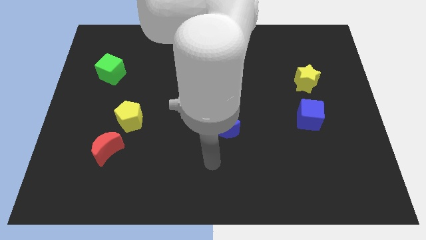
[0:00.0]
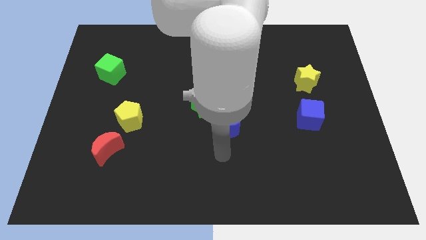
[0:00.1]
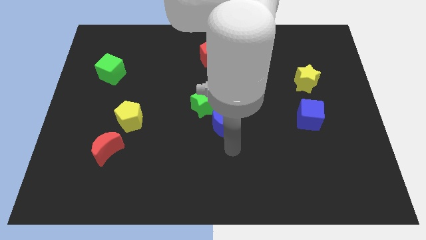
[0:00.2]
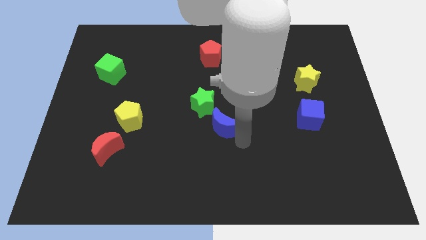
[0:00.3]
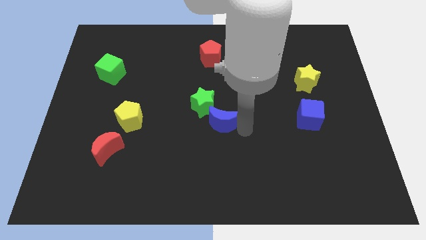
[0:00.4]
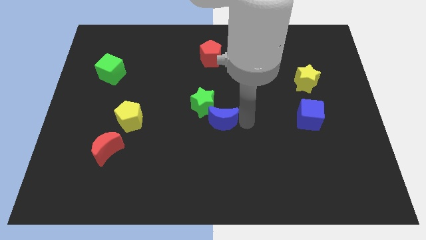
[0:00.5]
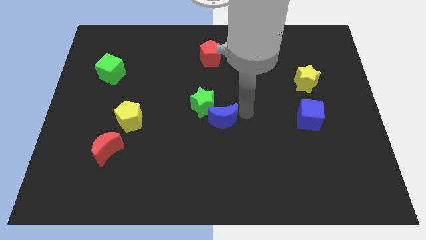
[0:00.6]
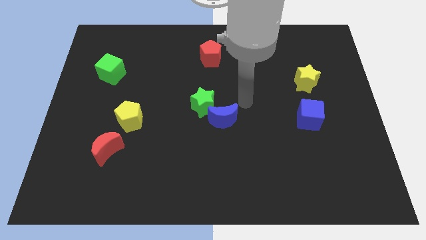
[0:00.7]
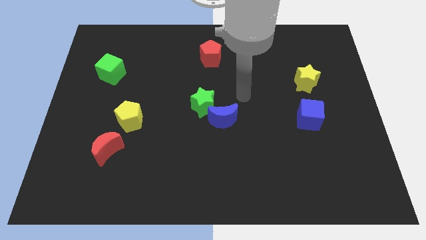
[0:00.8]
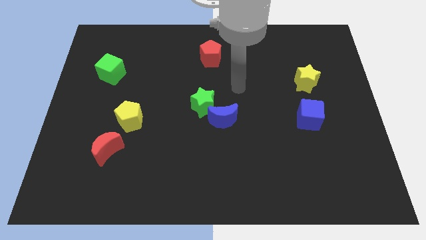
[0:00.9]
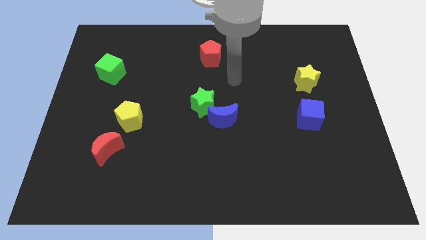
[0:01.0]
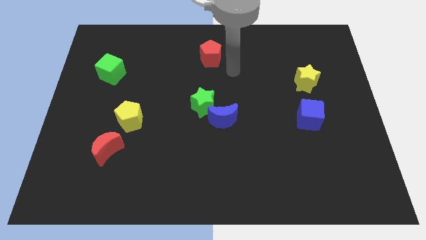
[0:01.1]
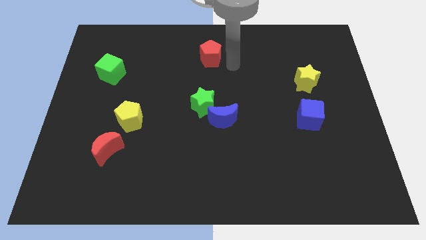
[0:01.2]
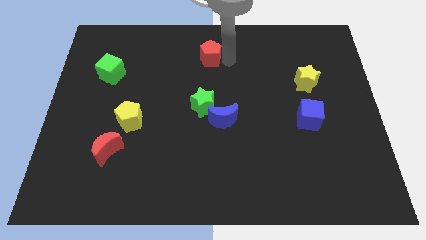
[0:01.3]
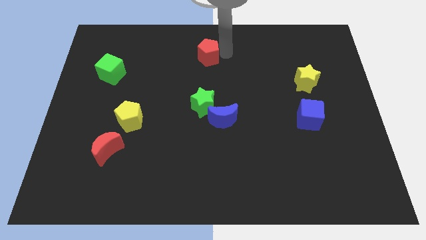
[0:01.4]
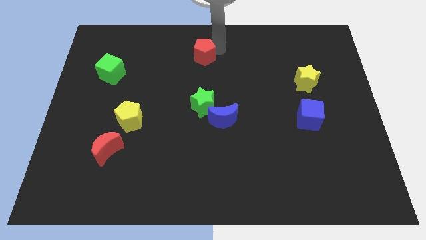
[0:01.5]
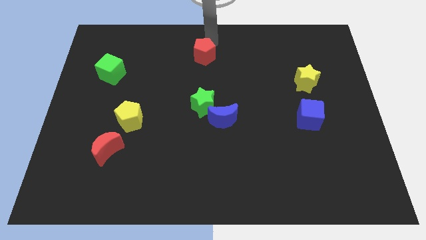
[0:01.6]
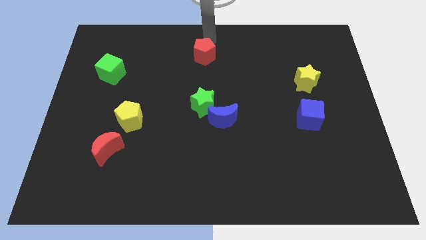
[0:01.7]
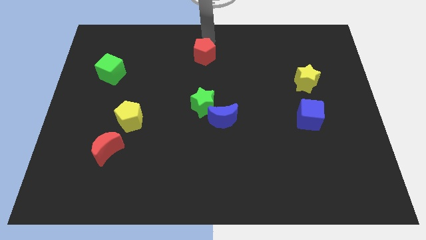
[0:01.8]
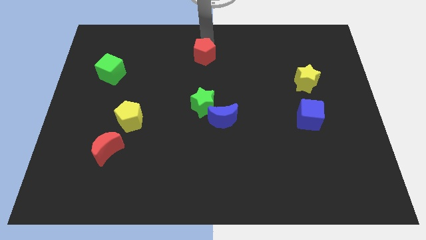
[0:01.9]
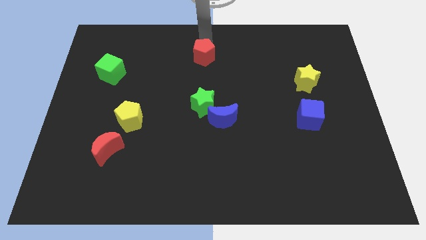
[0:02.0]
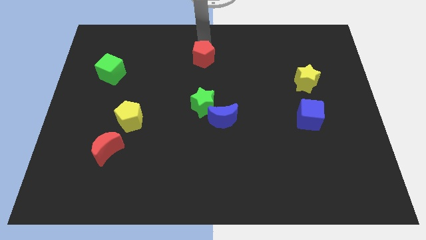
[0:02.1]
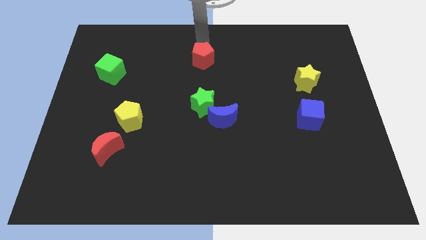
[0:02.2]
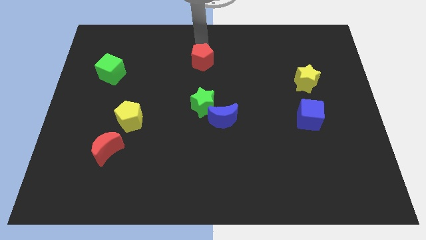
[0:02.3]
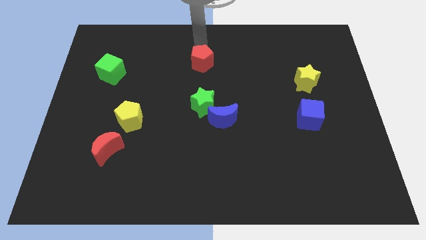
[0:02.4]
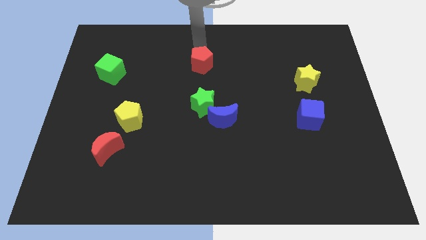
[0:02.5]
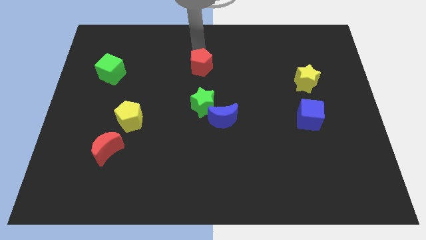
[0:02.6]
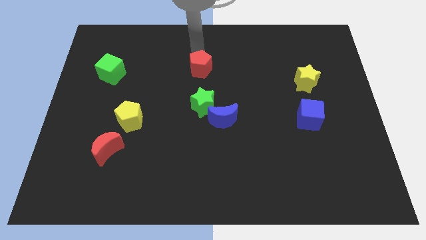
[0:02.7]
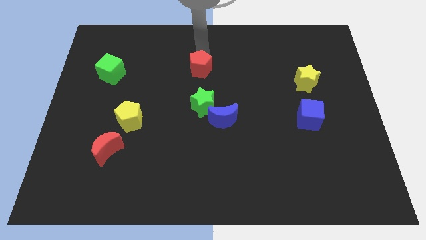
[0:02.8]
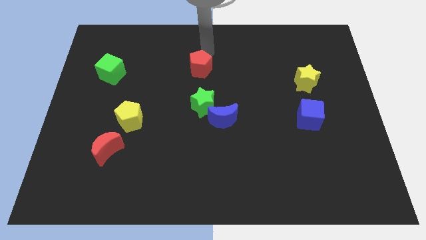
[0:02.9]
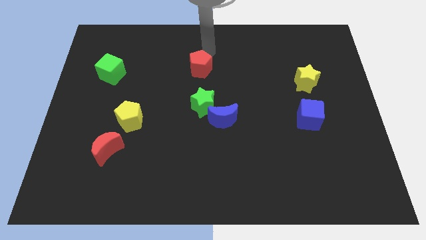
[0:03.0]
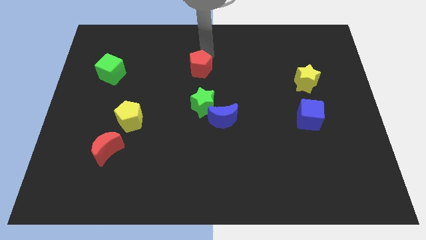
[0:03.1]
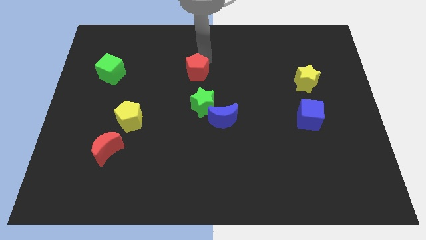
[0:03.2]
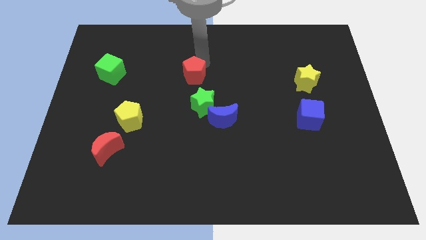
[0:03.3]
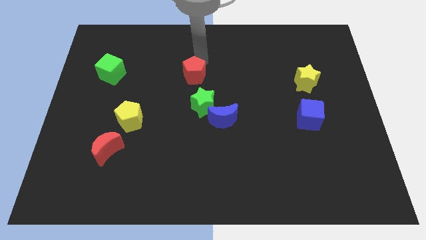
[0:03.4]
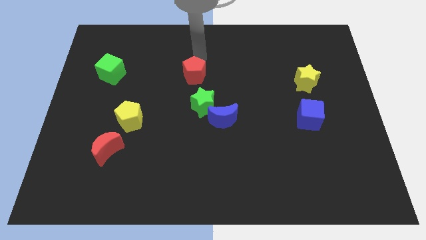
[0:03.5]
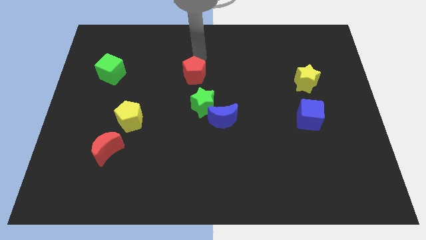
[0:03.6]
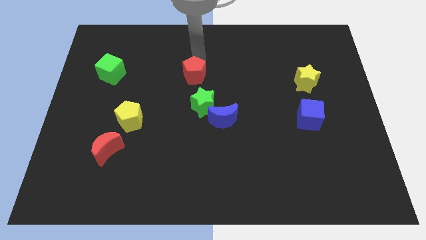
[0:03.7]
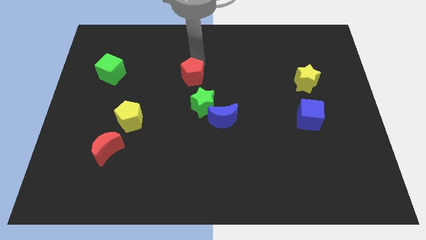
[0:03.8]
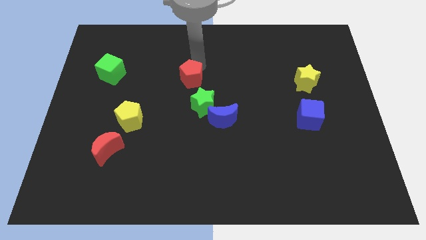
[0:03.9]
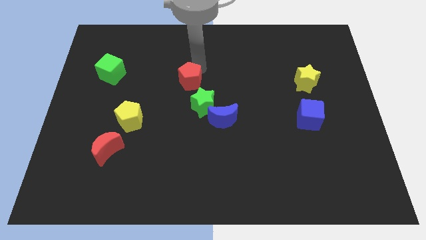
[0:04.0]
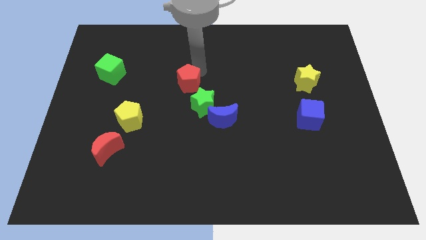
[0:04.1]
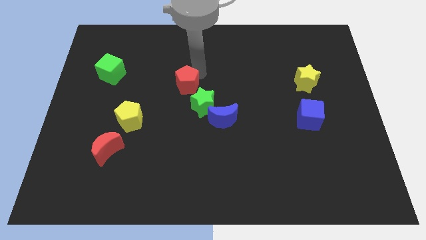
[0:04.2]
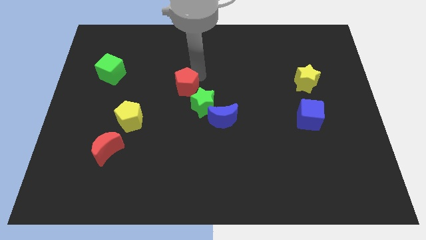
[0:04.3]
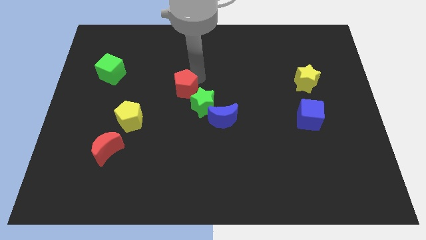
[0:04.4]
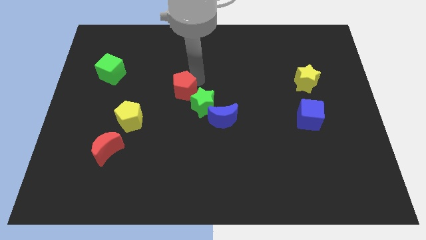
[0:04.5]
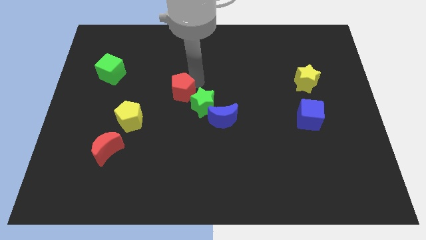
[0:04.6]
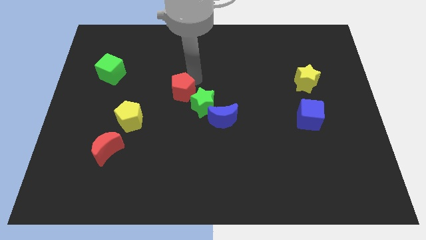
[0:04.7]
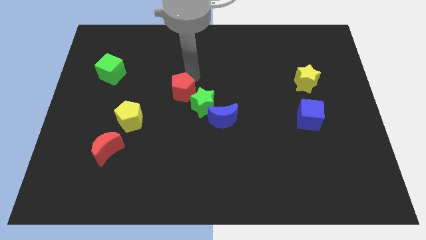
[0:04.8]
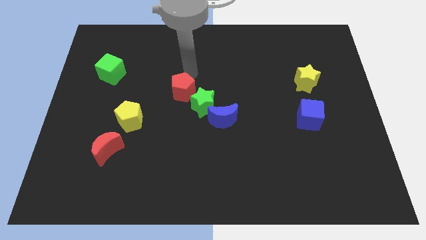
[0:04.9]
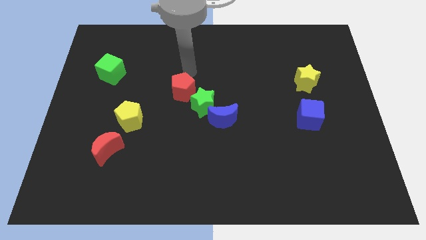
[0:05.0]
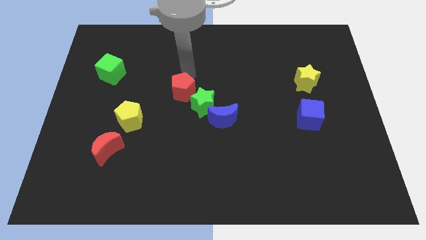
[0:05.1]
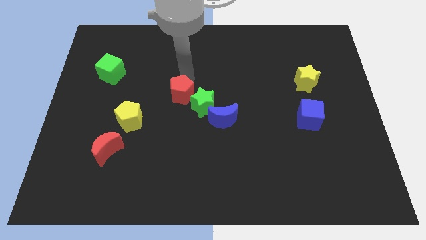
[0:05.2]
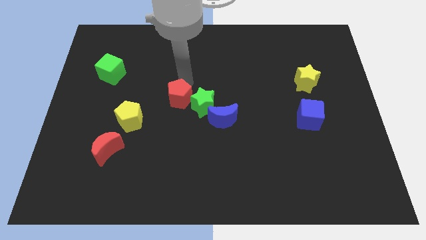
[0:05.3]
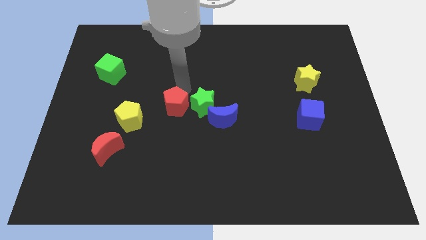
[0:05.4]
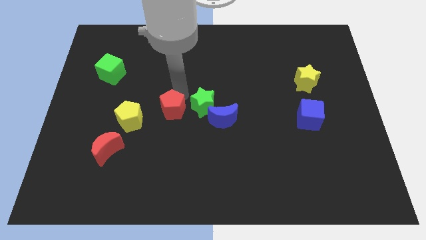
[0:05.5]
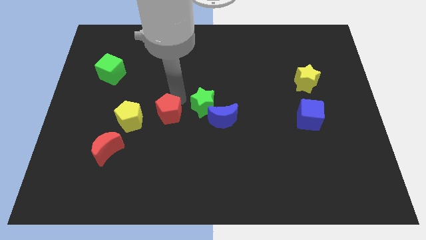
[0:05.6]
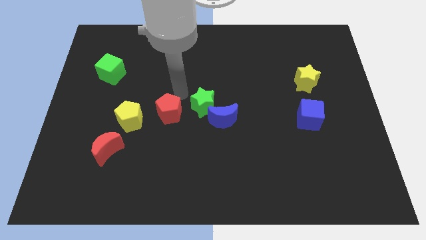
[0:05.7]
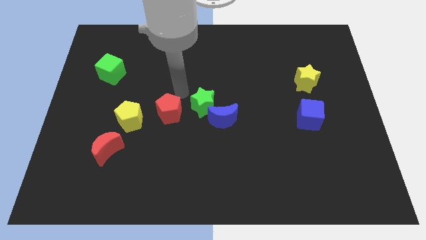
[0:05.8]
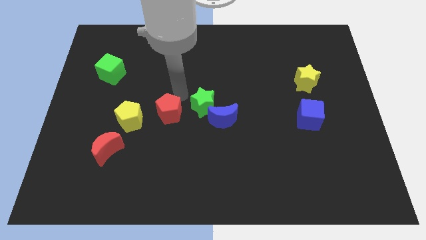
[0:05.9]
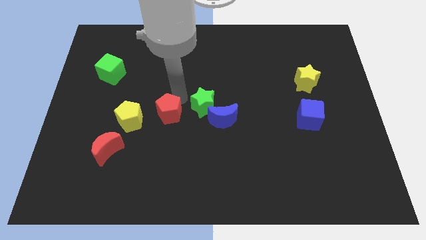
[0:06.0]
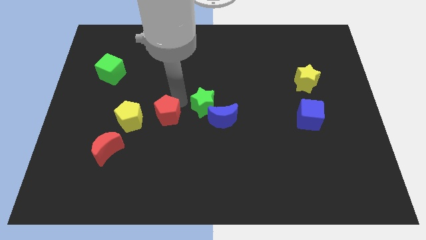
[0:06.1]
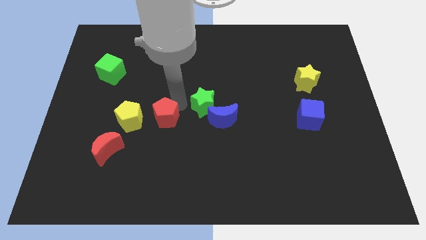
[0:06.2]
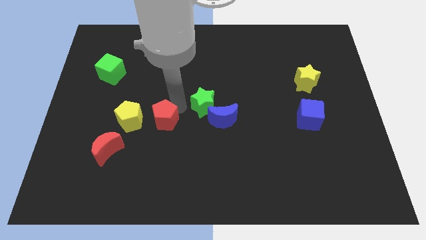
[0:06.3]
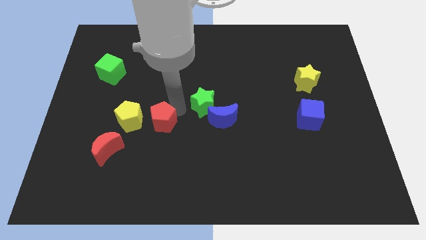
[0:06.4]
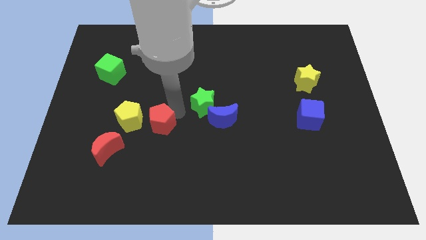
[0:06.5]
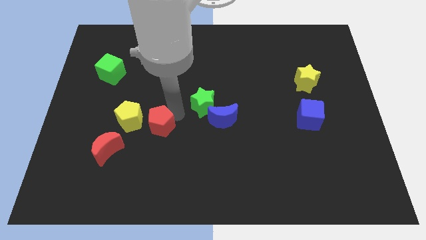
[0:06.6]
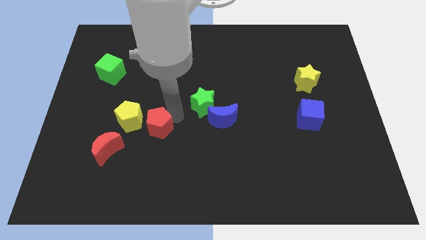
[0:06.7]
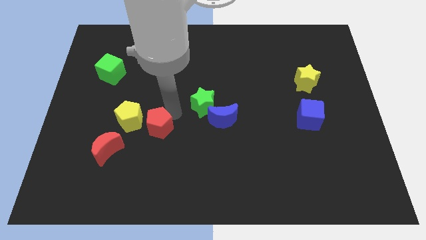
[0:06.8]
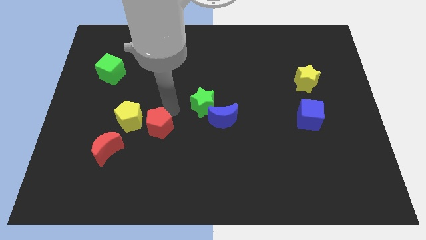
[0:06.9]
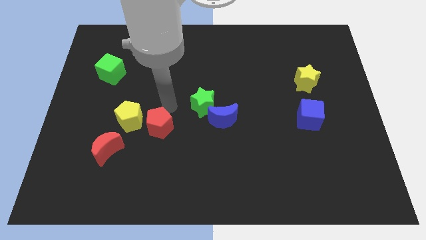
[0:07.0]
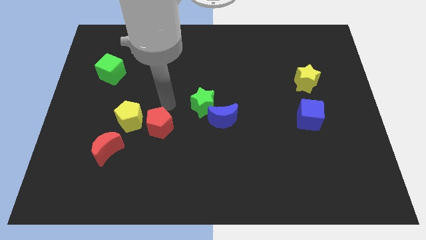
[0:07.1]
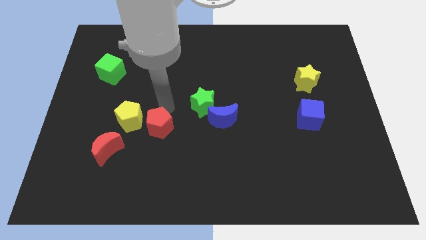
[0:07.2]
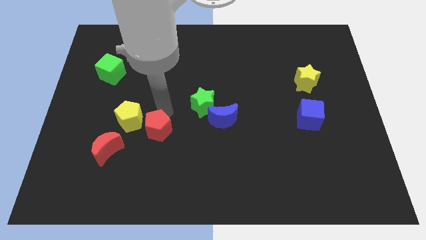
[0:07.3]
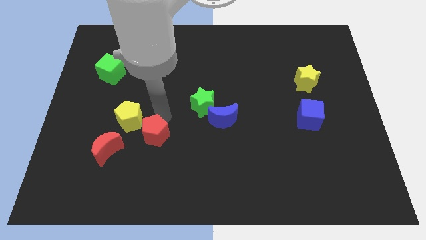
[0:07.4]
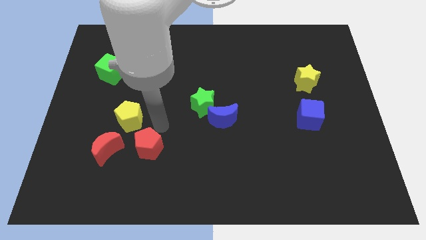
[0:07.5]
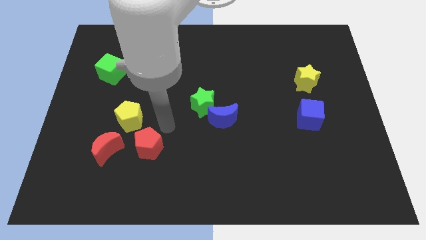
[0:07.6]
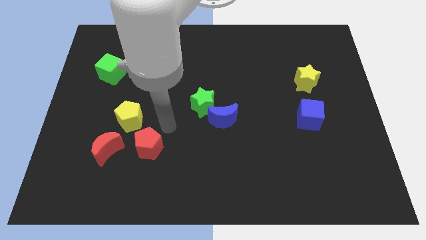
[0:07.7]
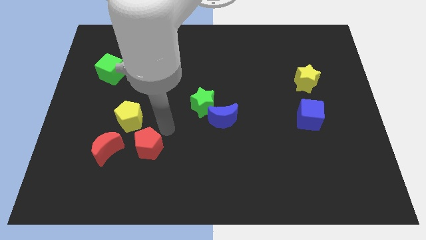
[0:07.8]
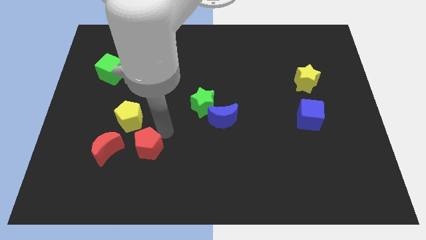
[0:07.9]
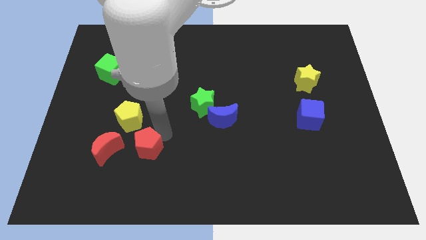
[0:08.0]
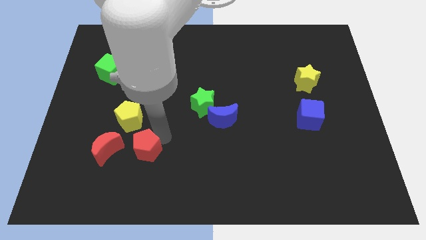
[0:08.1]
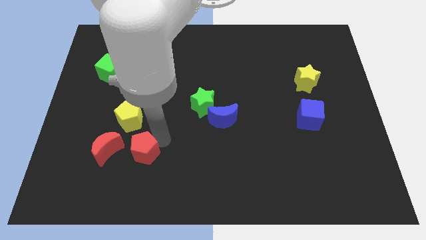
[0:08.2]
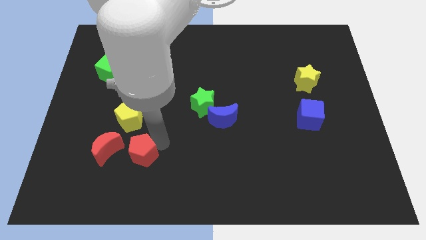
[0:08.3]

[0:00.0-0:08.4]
slide the red pentagon diagonally down and to the right of the red moon
